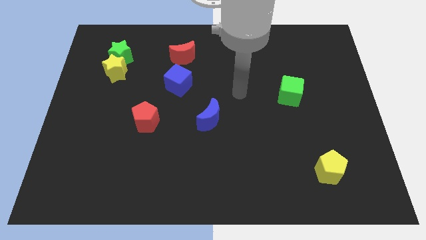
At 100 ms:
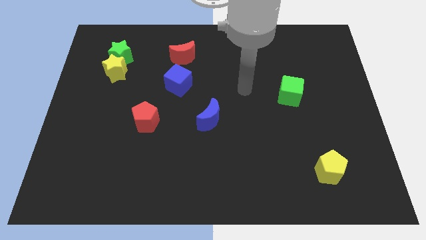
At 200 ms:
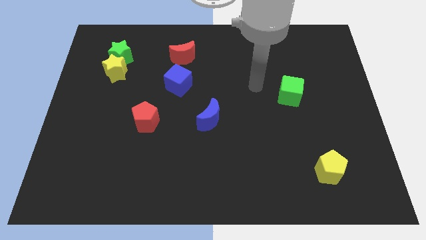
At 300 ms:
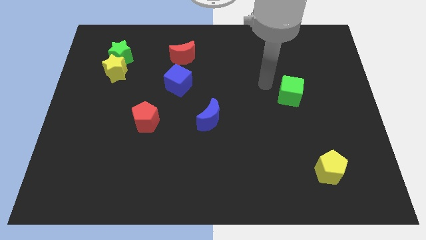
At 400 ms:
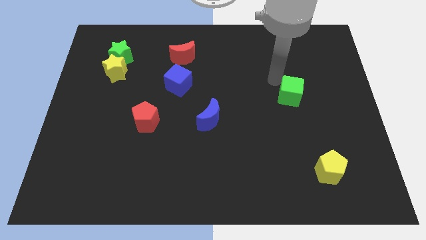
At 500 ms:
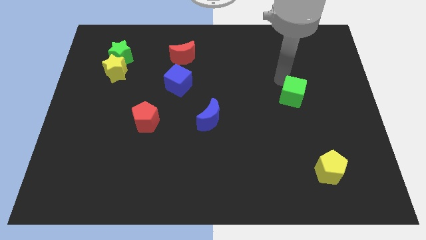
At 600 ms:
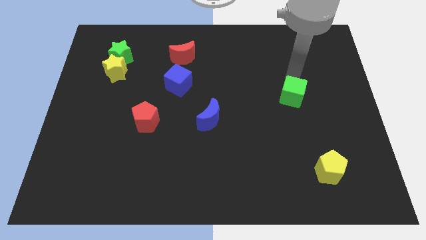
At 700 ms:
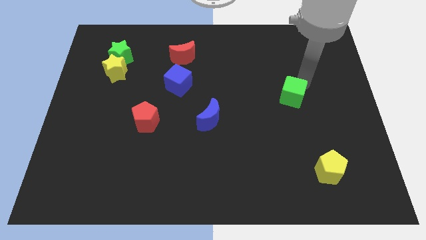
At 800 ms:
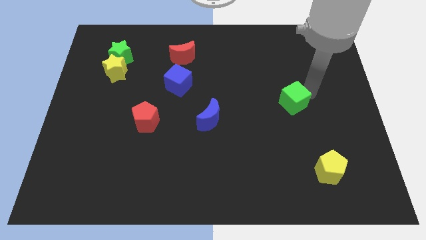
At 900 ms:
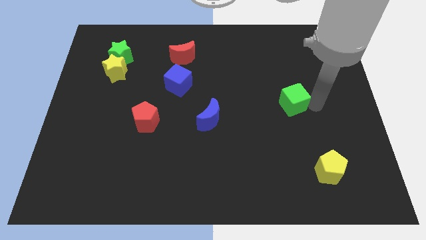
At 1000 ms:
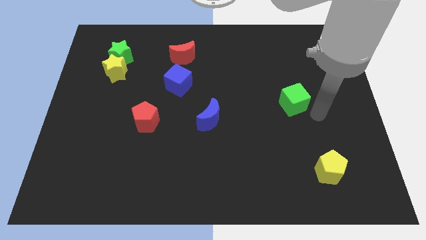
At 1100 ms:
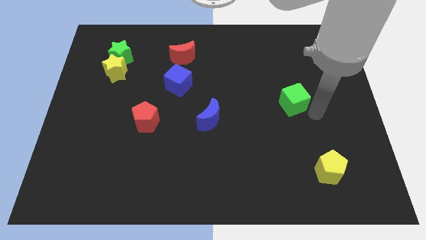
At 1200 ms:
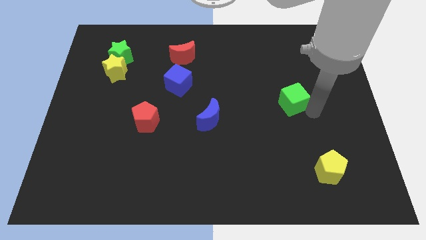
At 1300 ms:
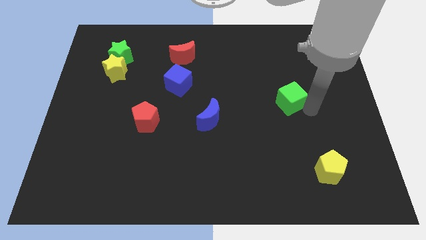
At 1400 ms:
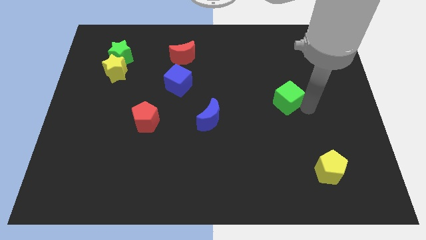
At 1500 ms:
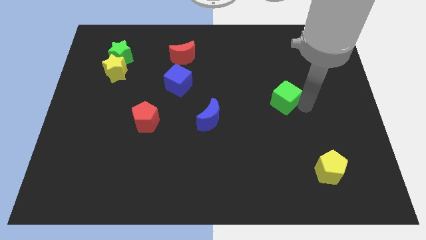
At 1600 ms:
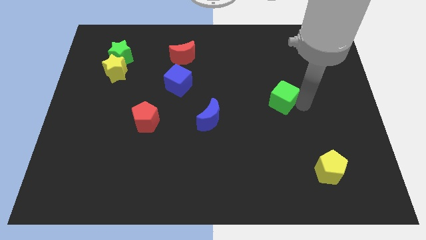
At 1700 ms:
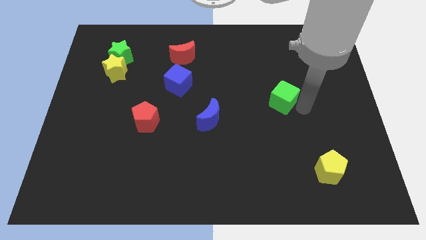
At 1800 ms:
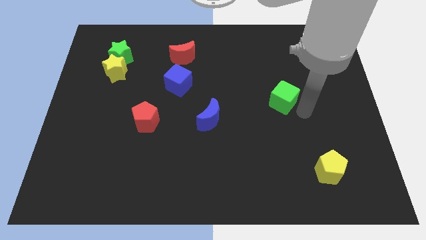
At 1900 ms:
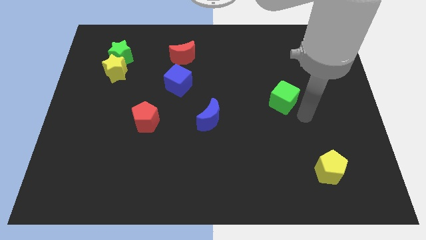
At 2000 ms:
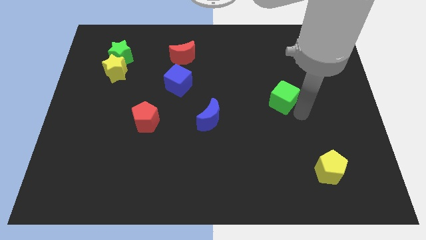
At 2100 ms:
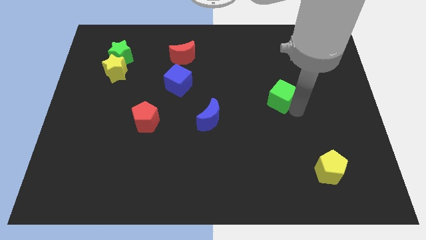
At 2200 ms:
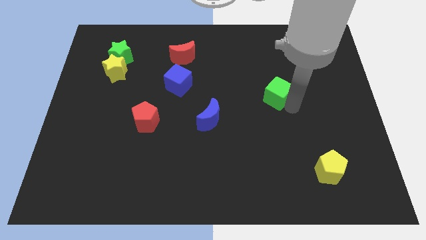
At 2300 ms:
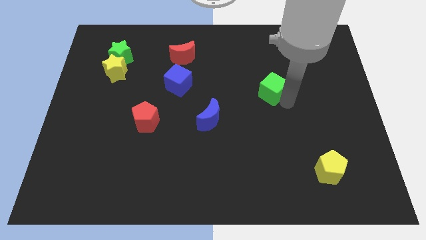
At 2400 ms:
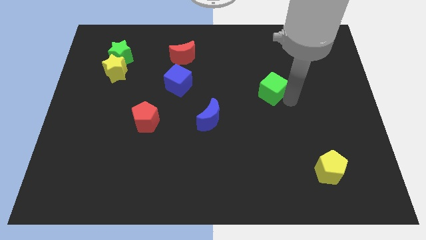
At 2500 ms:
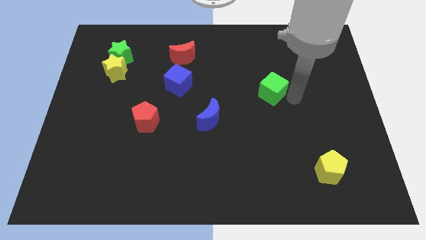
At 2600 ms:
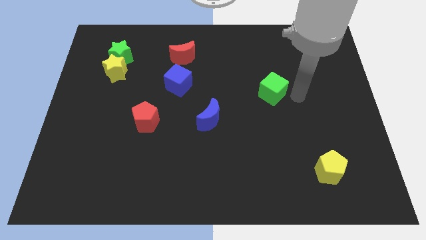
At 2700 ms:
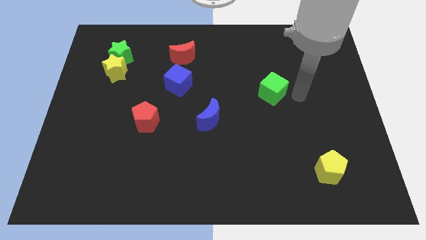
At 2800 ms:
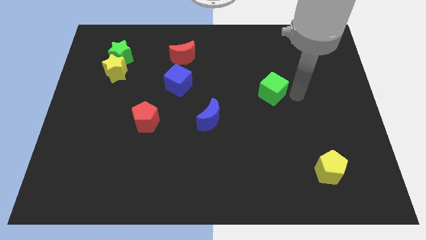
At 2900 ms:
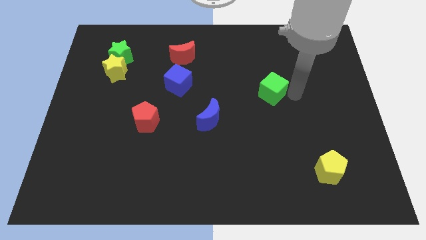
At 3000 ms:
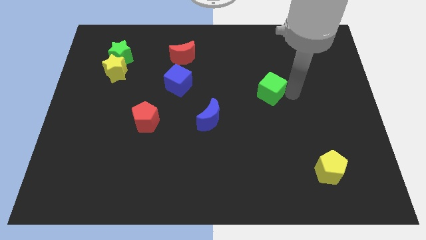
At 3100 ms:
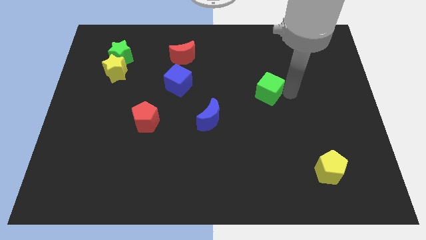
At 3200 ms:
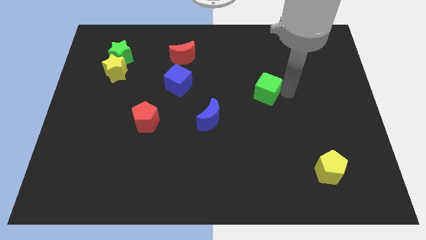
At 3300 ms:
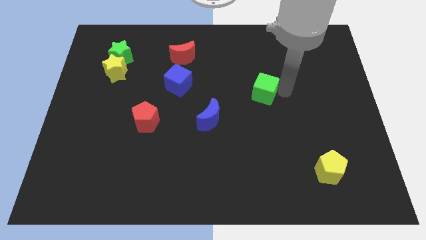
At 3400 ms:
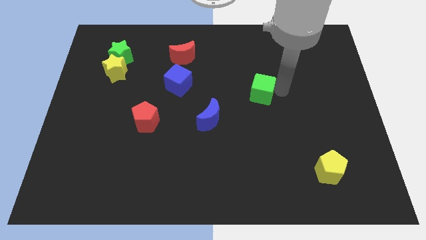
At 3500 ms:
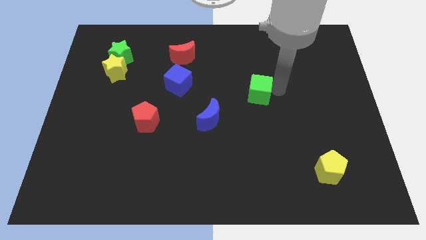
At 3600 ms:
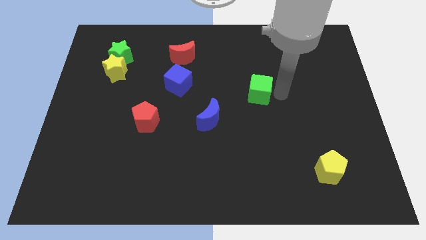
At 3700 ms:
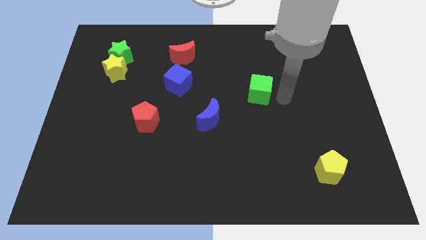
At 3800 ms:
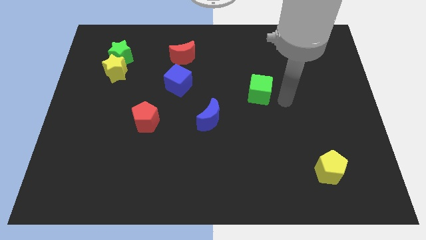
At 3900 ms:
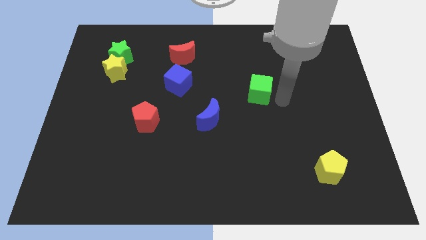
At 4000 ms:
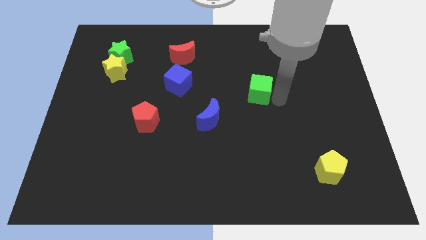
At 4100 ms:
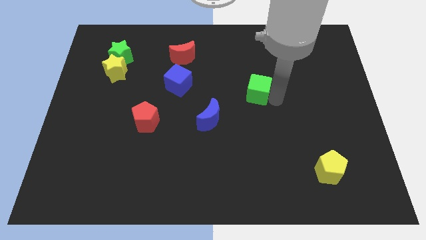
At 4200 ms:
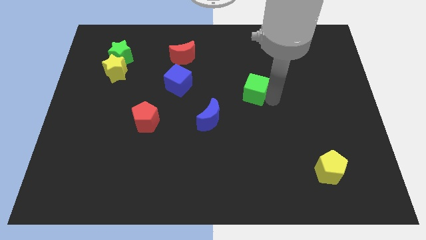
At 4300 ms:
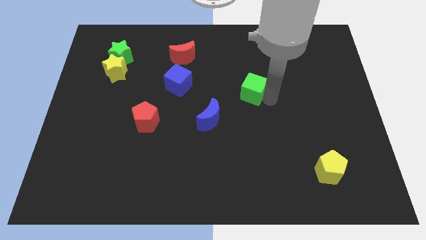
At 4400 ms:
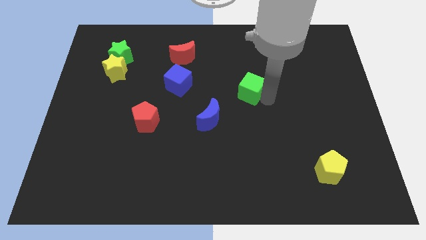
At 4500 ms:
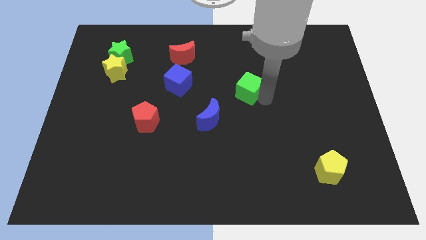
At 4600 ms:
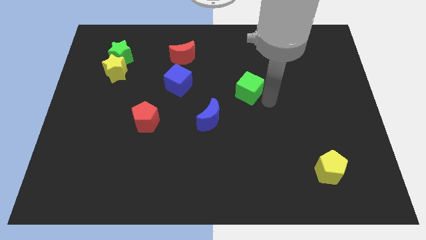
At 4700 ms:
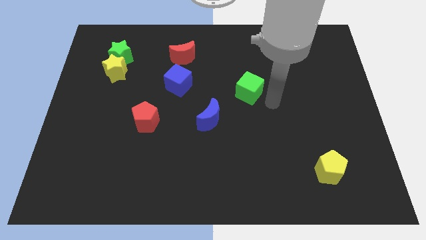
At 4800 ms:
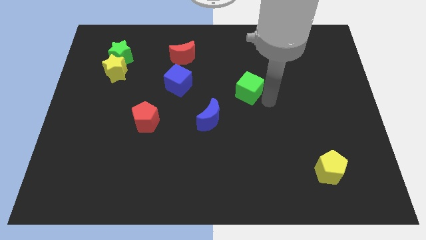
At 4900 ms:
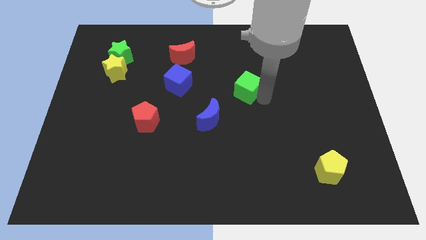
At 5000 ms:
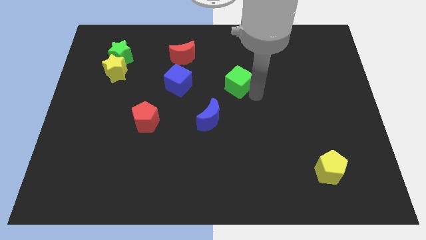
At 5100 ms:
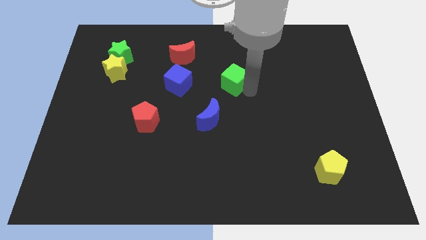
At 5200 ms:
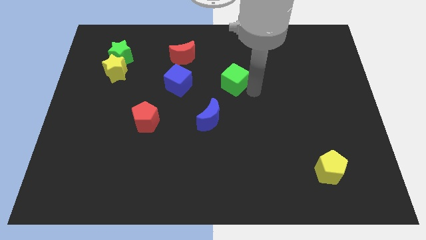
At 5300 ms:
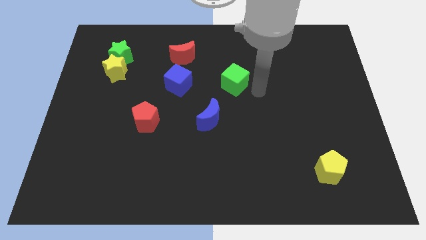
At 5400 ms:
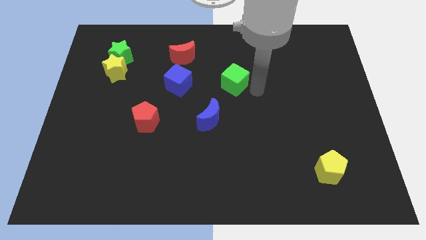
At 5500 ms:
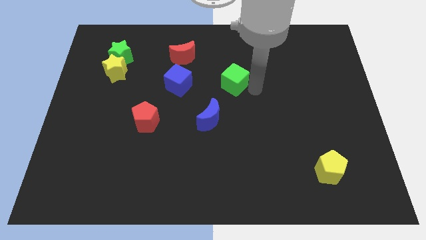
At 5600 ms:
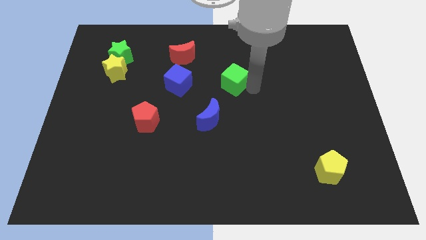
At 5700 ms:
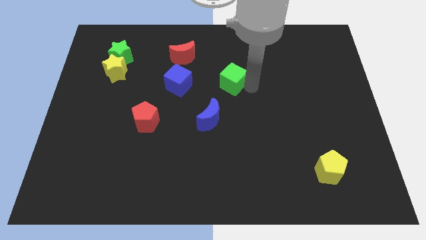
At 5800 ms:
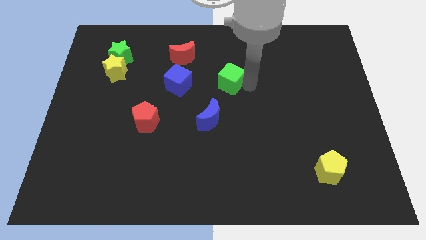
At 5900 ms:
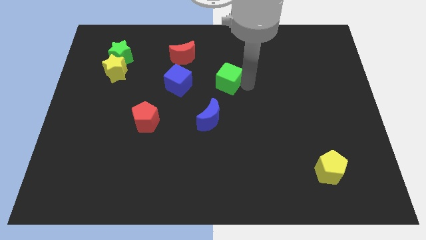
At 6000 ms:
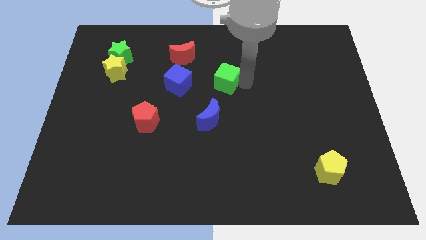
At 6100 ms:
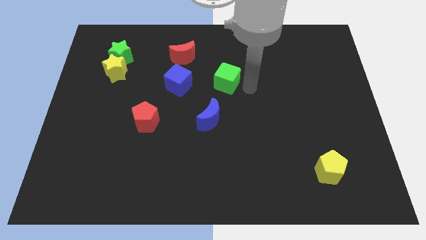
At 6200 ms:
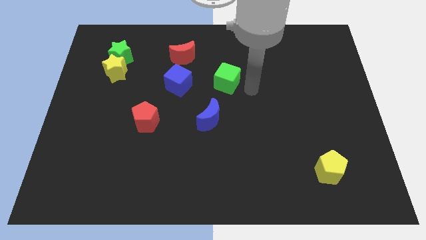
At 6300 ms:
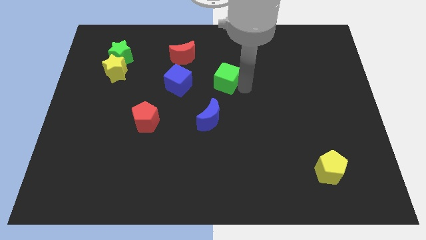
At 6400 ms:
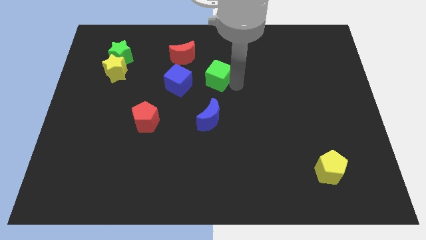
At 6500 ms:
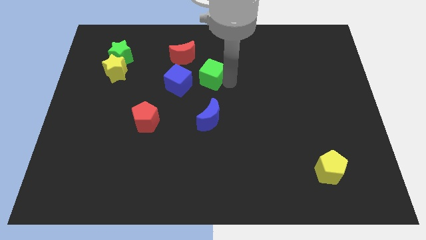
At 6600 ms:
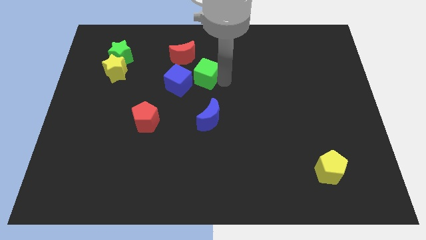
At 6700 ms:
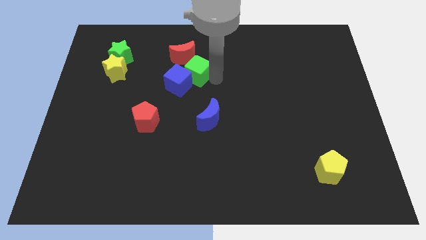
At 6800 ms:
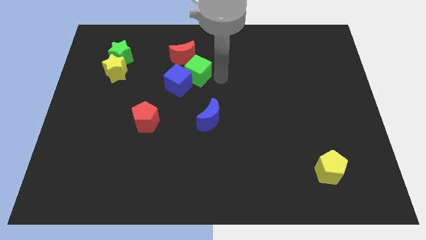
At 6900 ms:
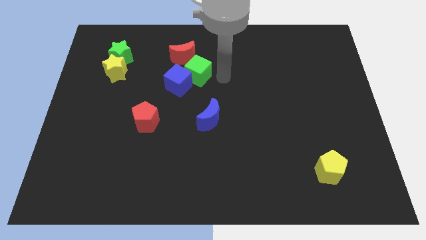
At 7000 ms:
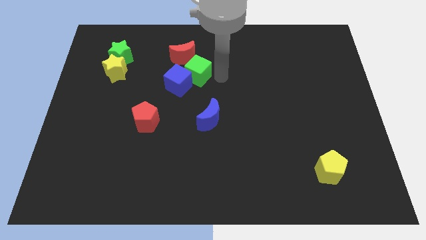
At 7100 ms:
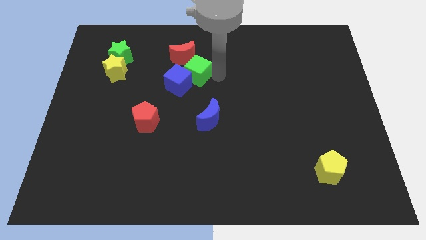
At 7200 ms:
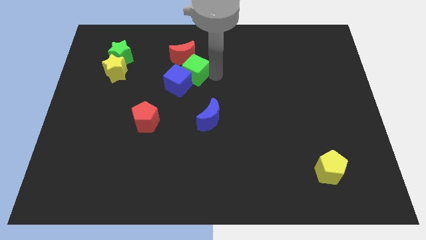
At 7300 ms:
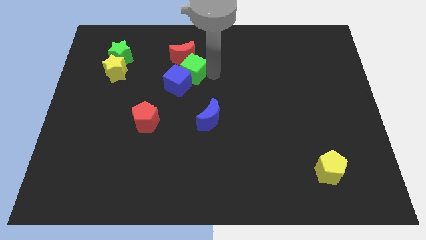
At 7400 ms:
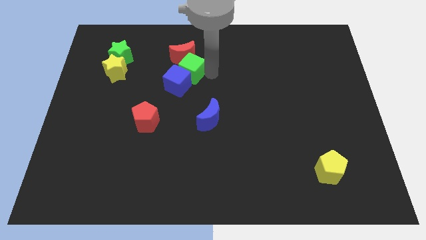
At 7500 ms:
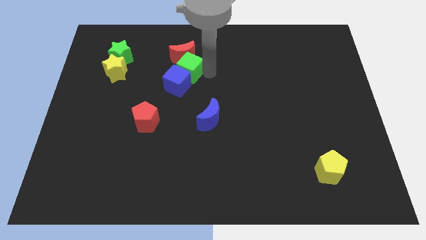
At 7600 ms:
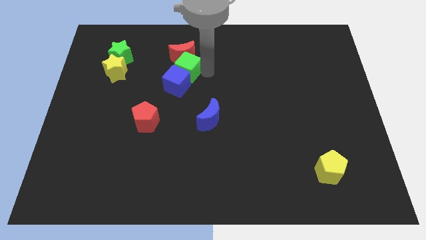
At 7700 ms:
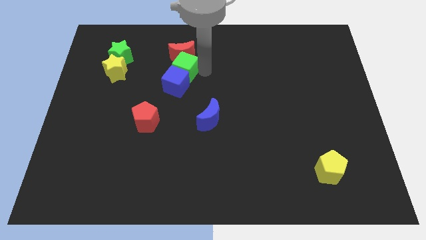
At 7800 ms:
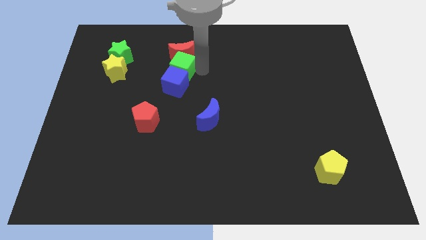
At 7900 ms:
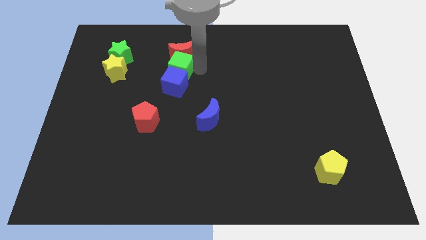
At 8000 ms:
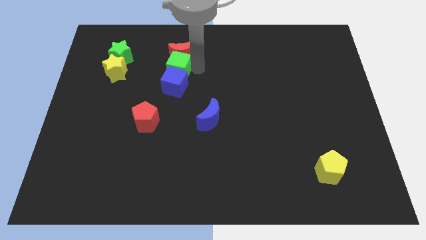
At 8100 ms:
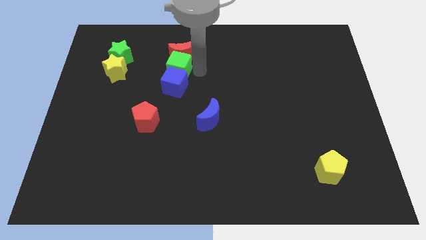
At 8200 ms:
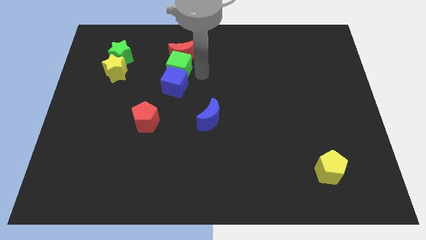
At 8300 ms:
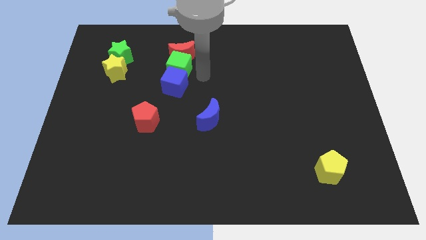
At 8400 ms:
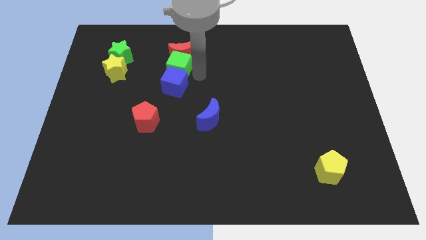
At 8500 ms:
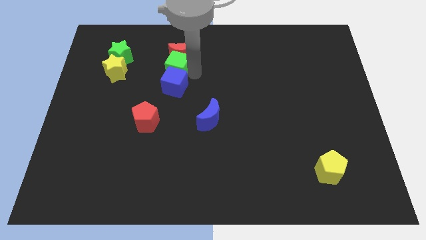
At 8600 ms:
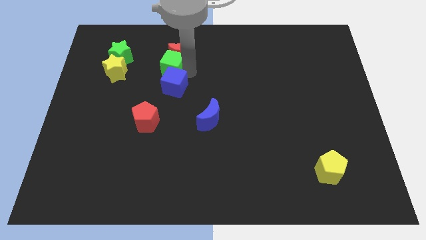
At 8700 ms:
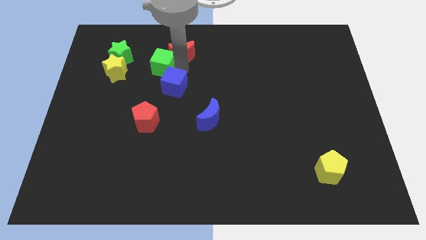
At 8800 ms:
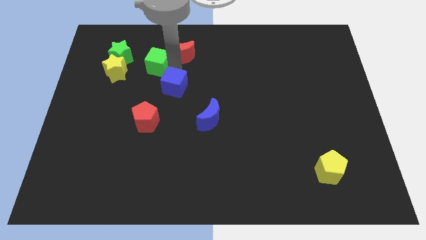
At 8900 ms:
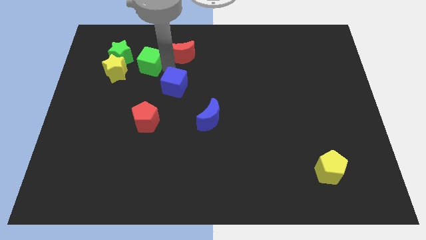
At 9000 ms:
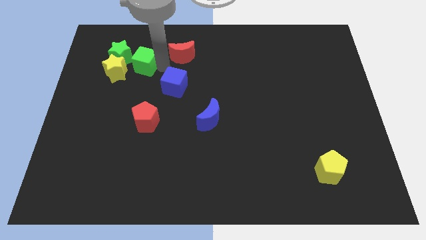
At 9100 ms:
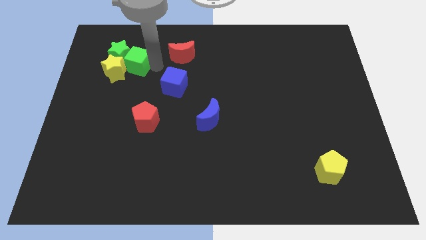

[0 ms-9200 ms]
push the green cube close to the green star
